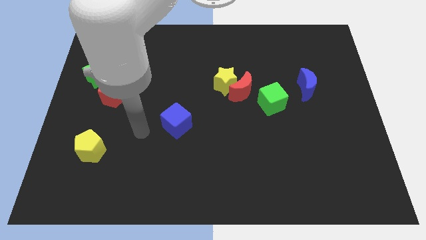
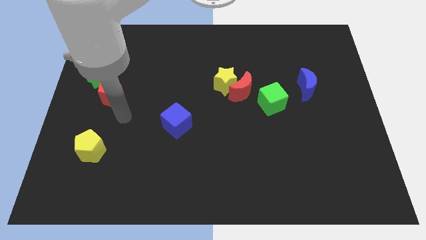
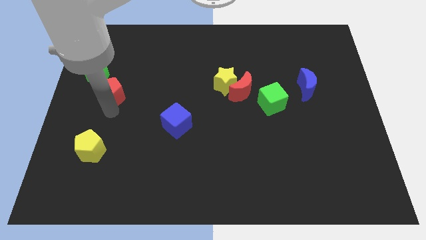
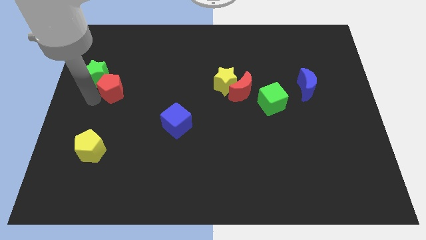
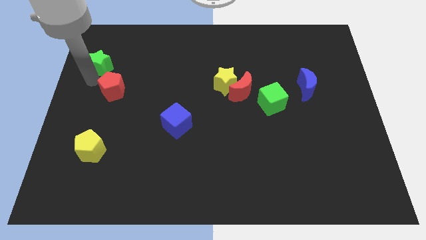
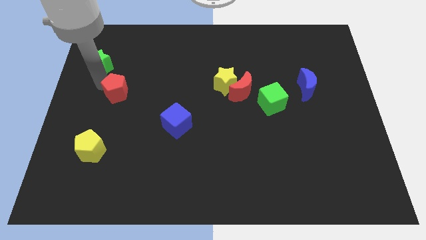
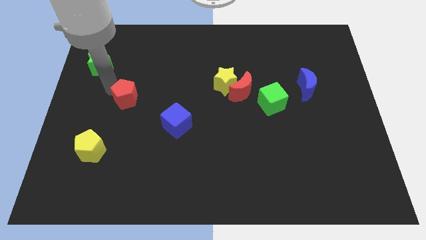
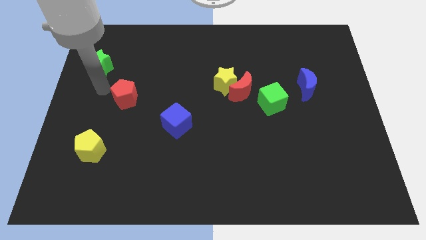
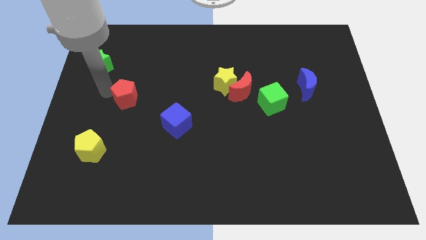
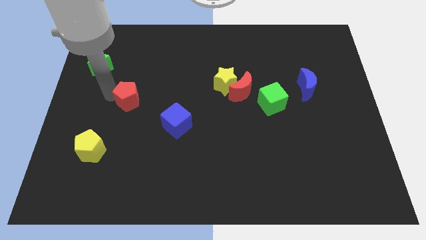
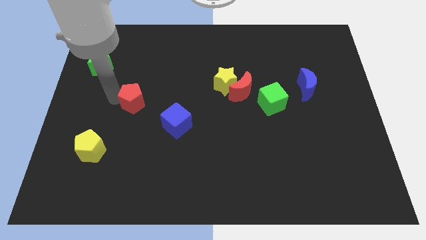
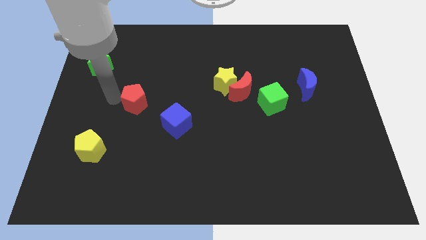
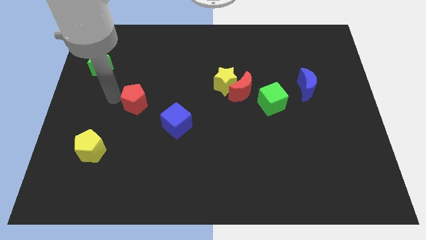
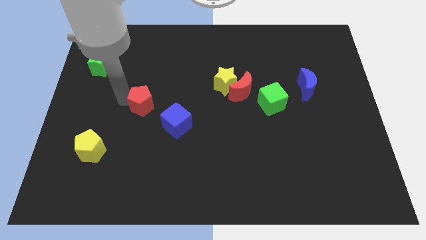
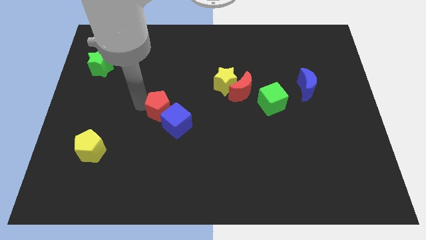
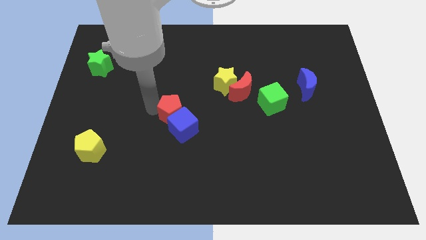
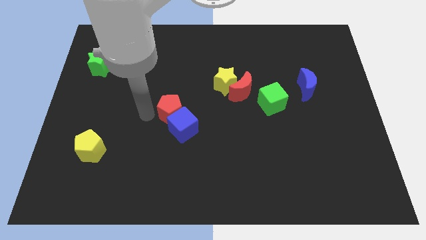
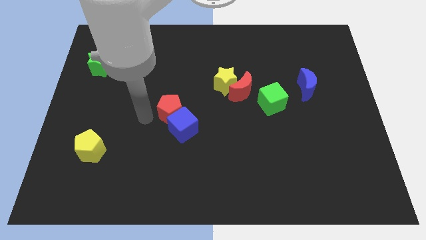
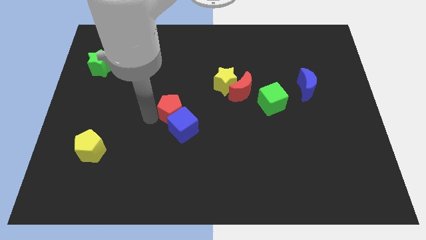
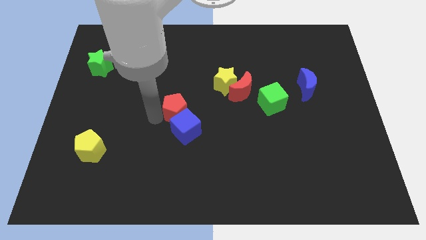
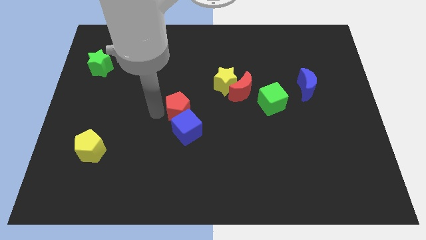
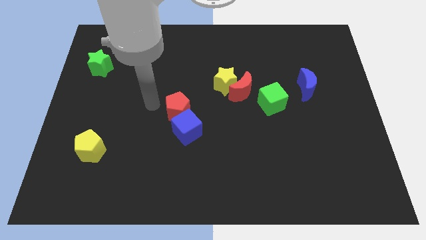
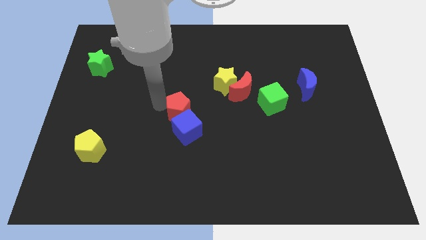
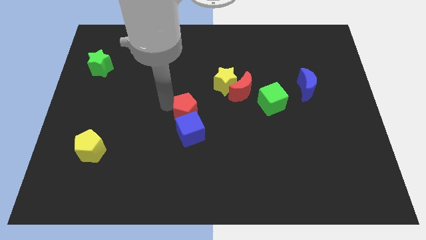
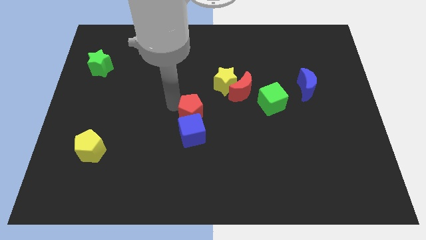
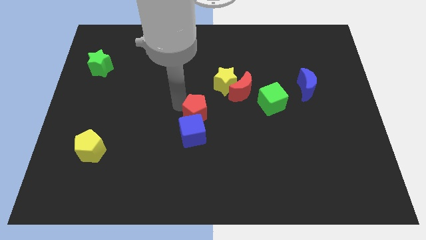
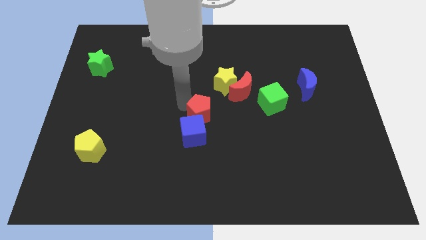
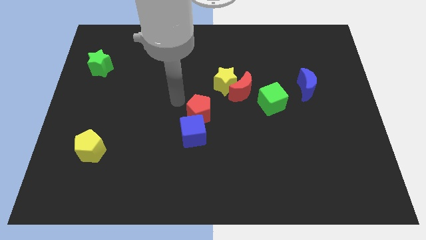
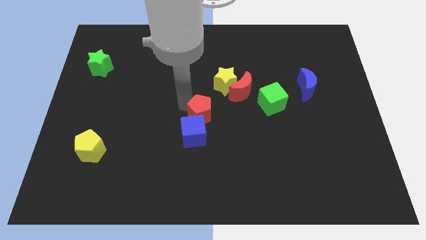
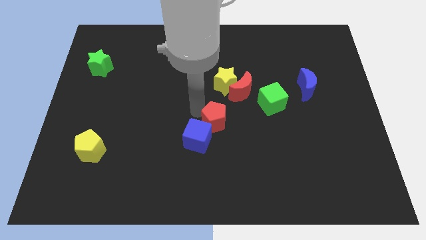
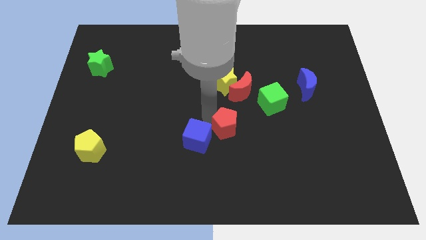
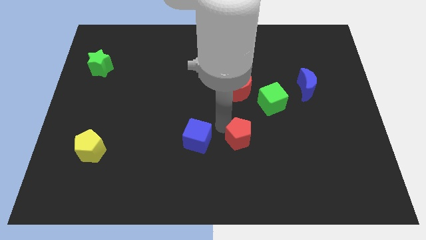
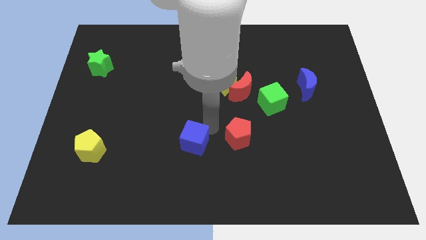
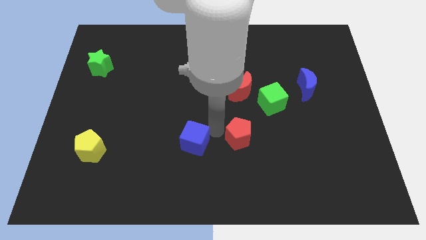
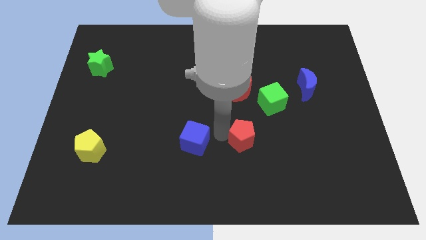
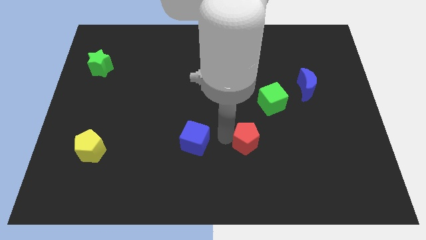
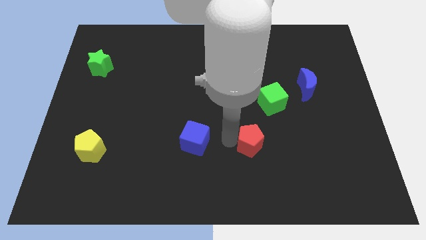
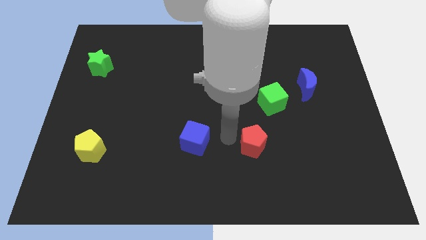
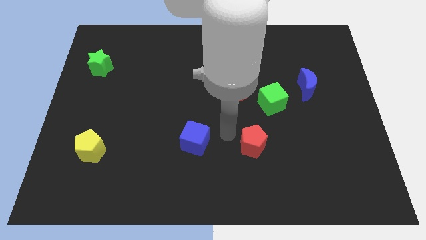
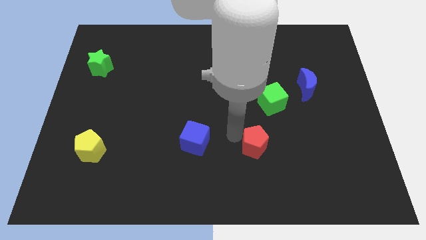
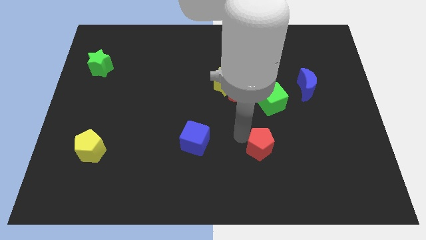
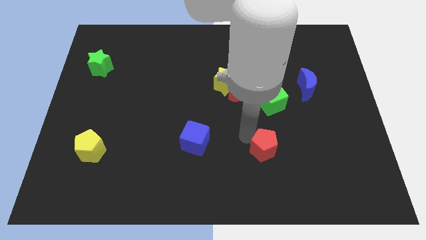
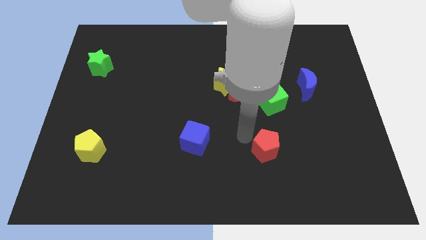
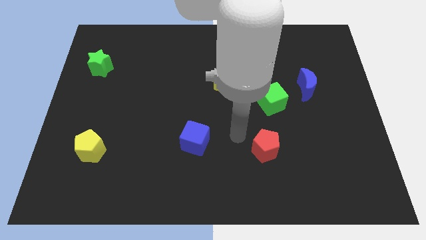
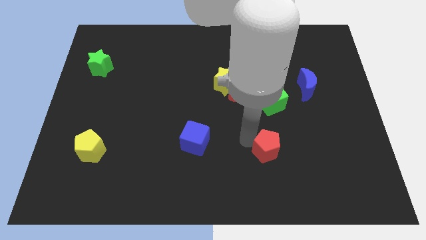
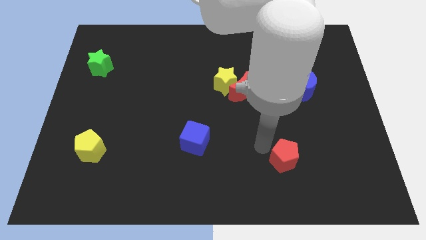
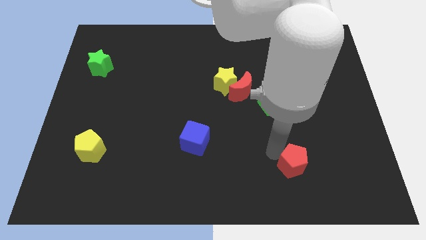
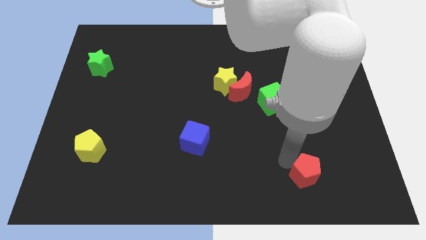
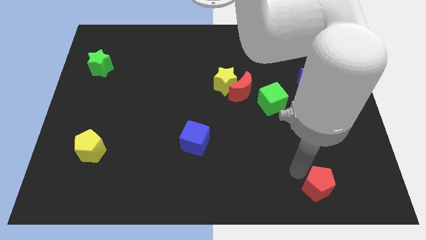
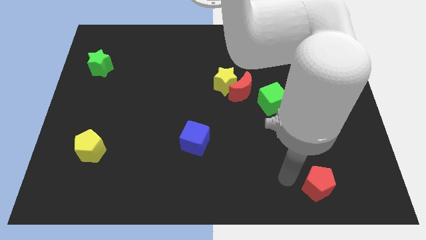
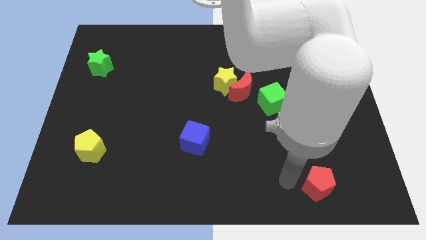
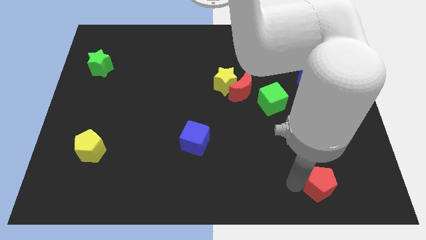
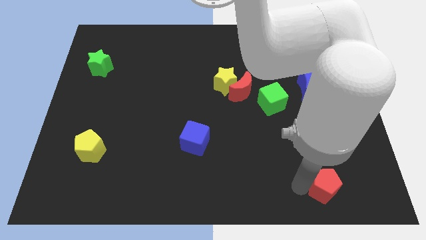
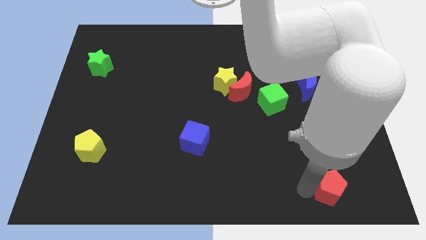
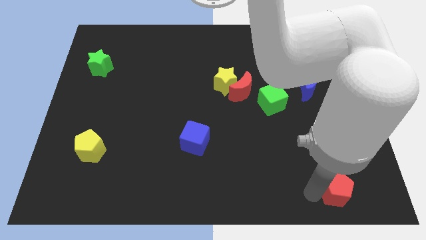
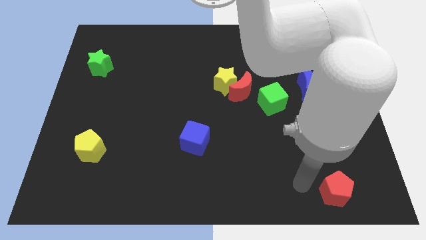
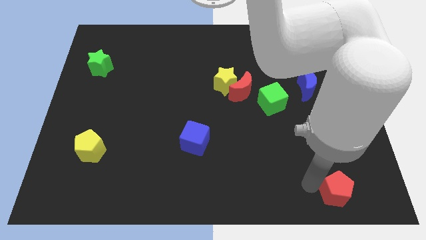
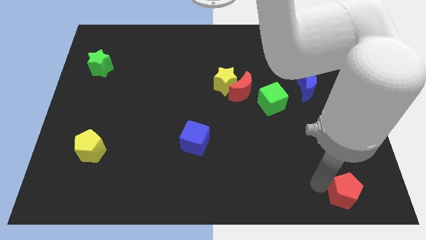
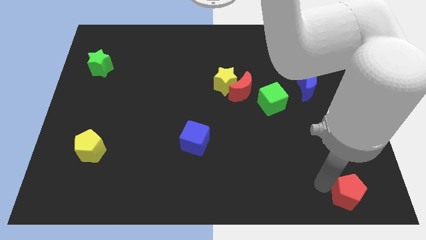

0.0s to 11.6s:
slide the red pentagon to the bottom right corner

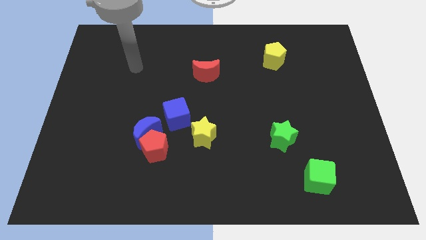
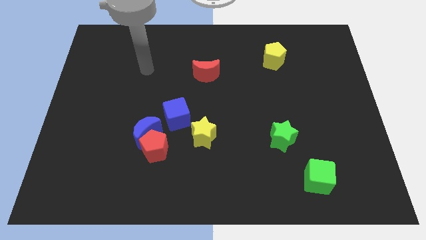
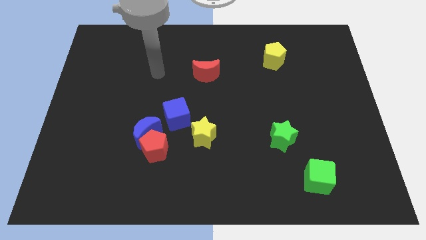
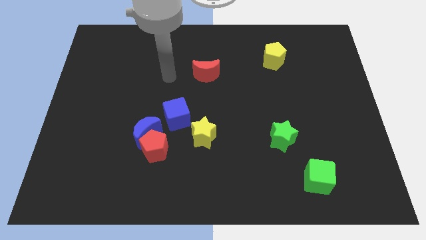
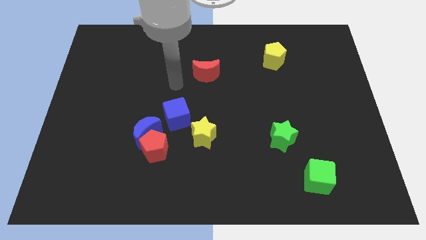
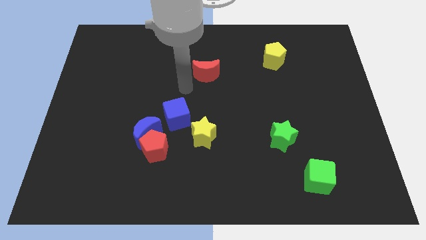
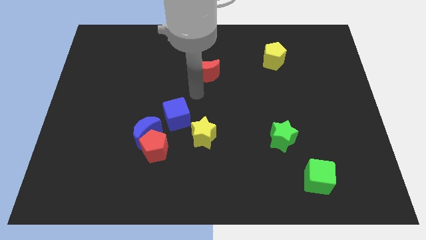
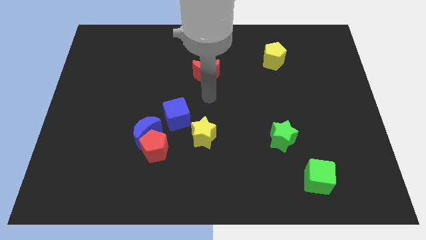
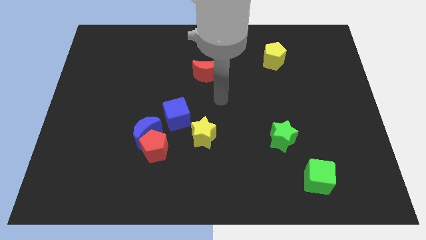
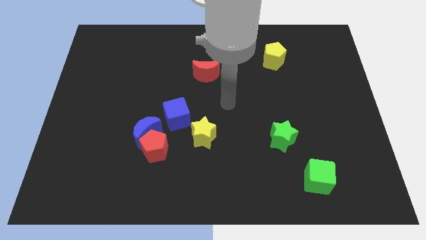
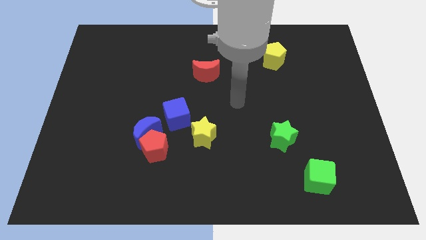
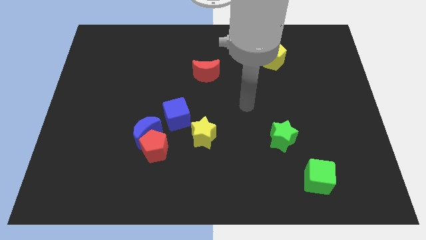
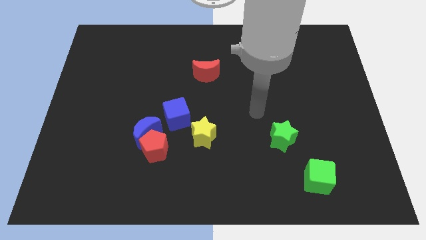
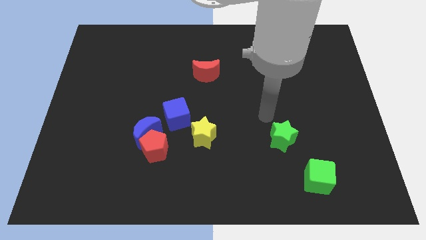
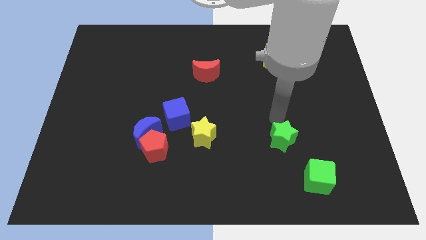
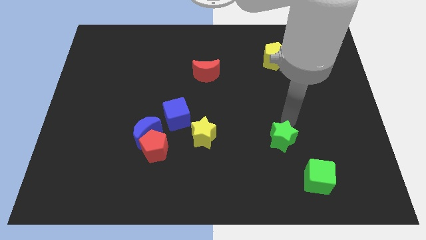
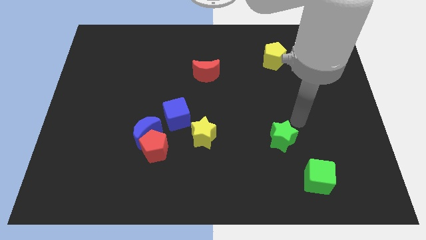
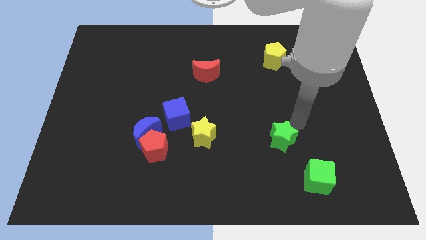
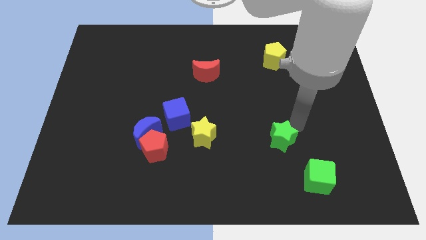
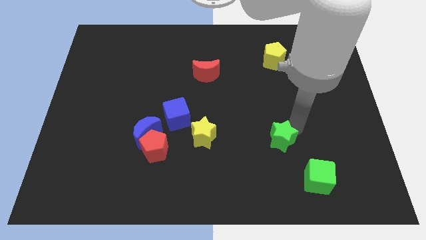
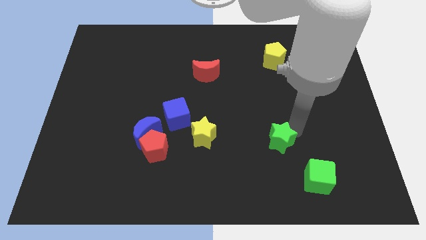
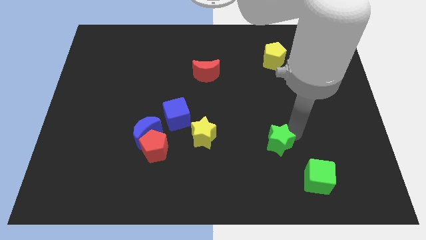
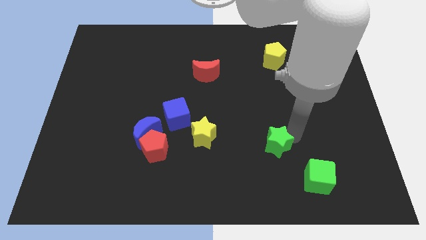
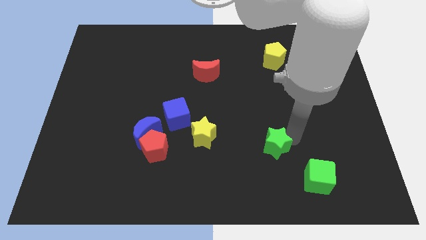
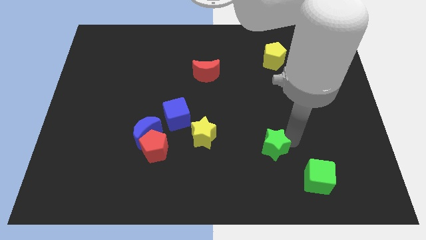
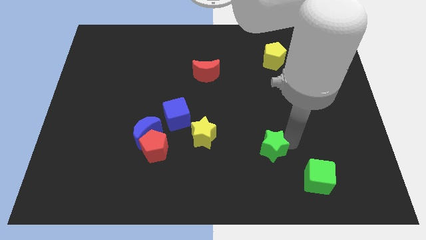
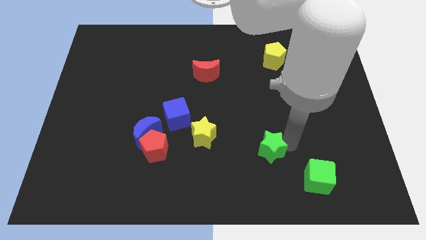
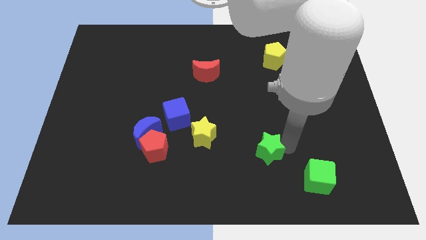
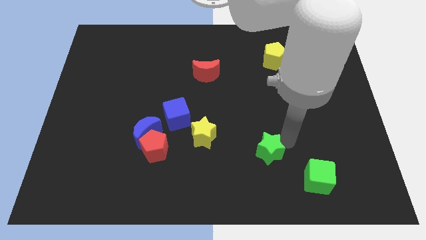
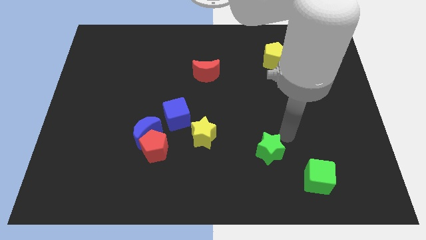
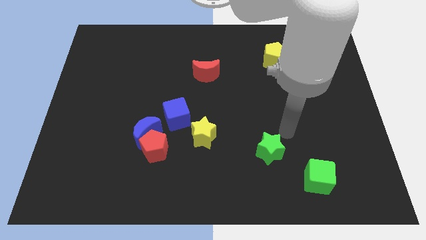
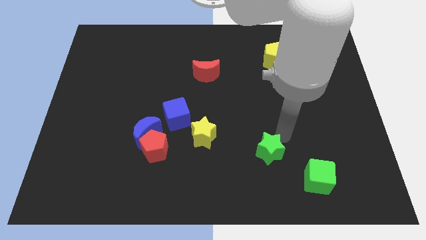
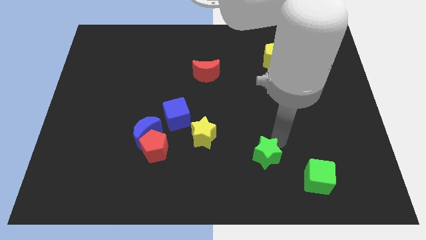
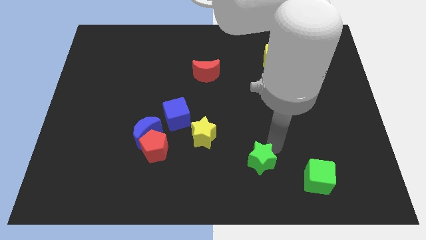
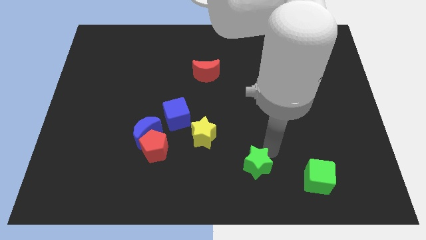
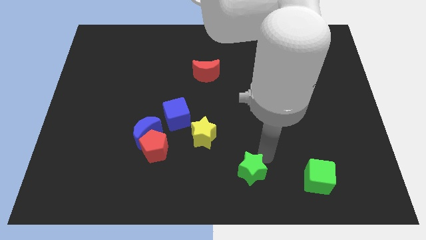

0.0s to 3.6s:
move the green star to the bottom side
